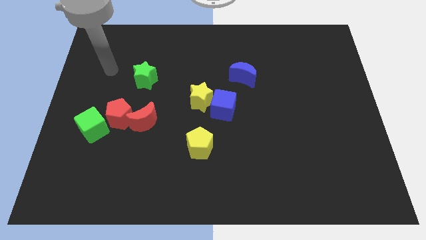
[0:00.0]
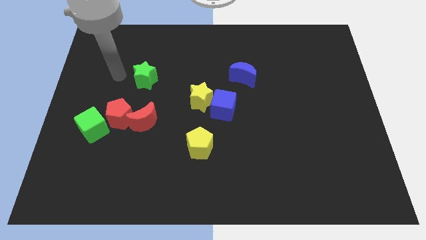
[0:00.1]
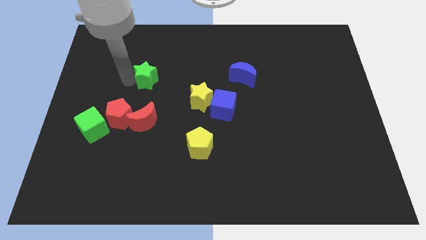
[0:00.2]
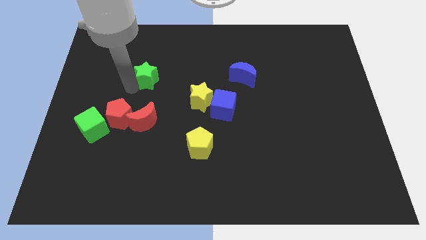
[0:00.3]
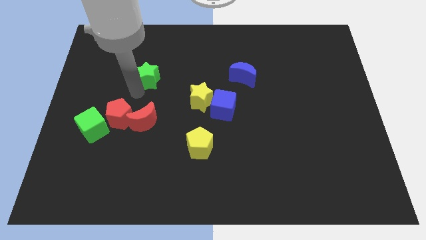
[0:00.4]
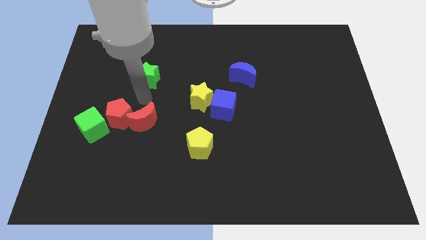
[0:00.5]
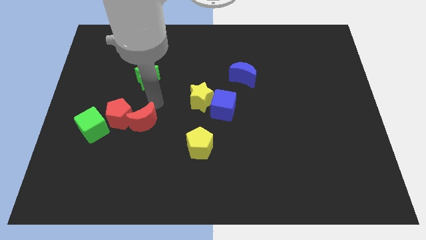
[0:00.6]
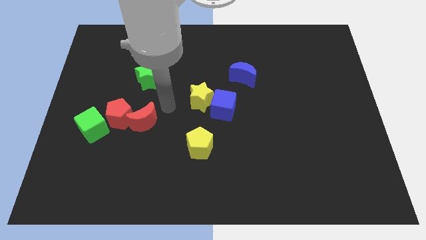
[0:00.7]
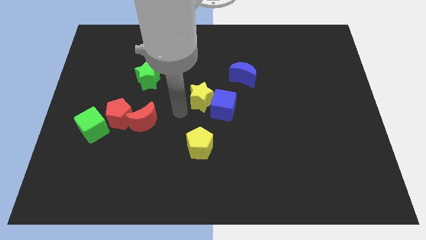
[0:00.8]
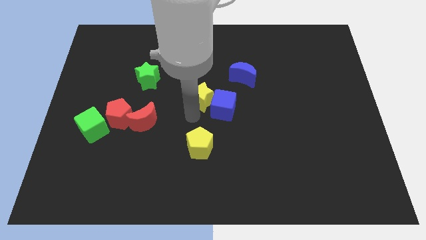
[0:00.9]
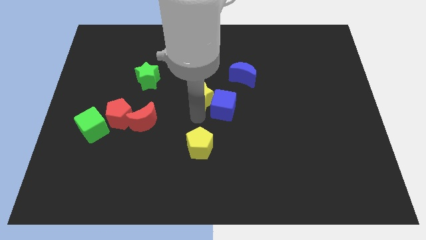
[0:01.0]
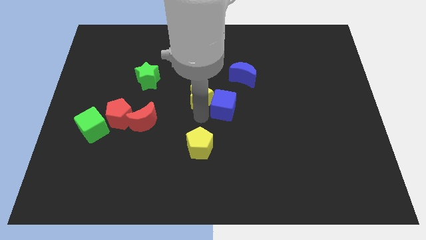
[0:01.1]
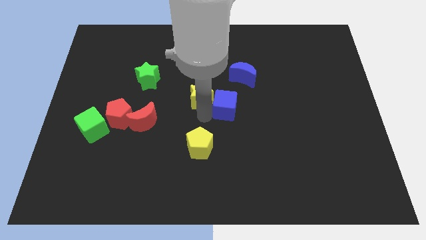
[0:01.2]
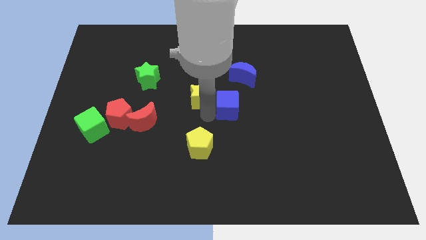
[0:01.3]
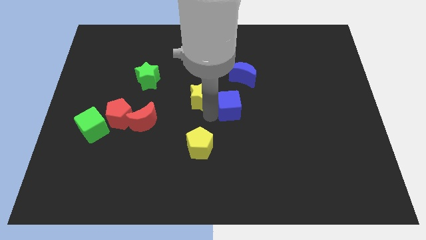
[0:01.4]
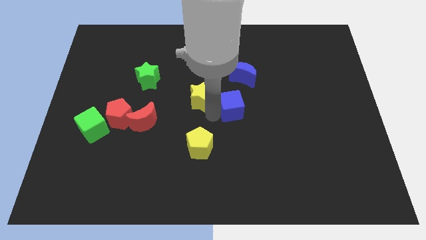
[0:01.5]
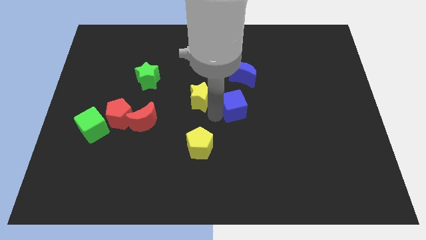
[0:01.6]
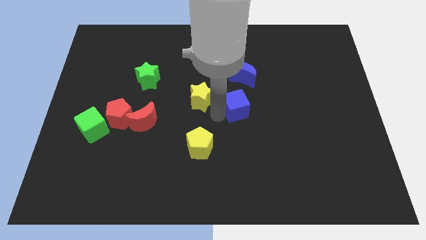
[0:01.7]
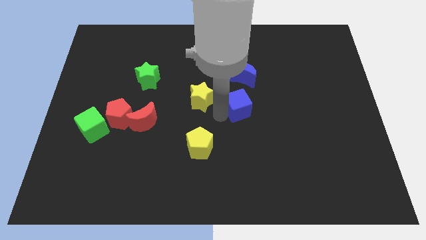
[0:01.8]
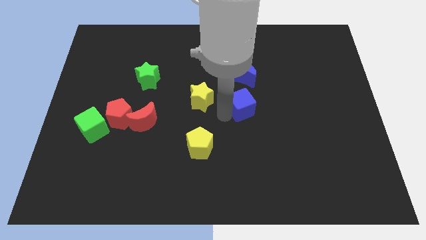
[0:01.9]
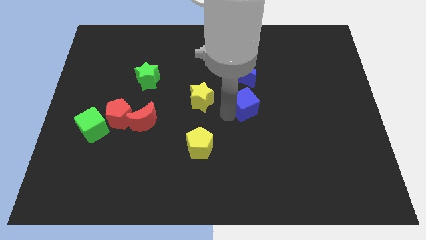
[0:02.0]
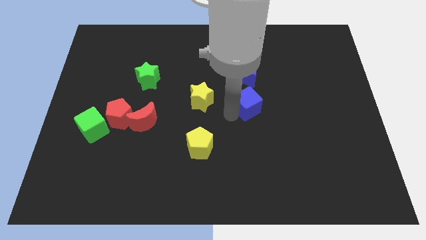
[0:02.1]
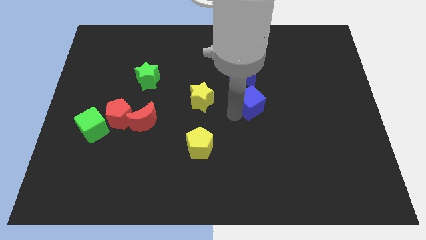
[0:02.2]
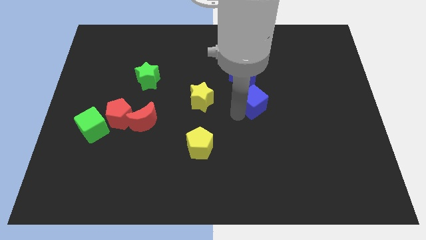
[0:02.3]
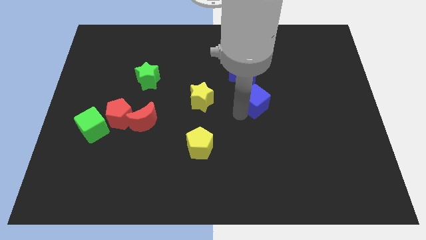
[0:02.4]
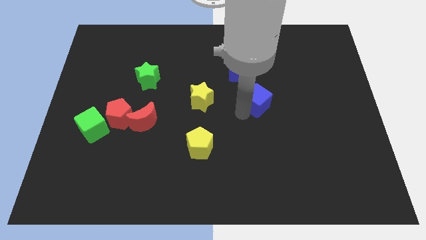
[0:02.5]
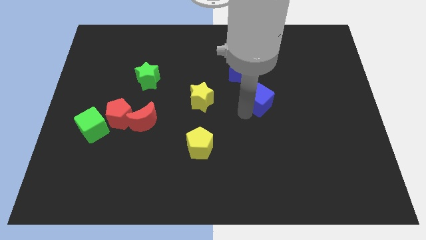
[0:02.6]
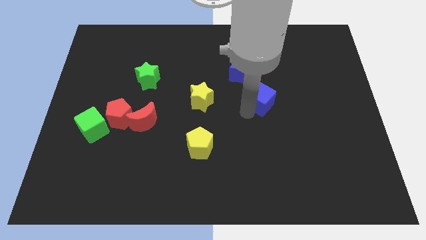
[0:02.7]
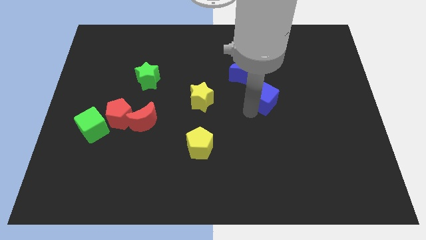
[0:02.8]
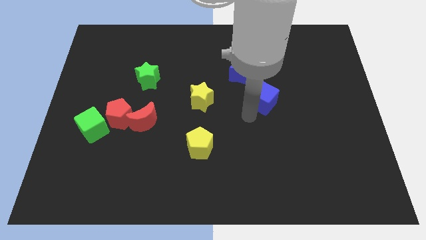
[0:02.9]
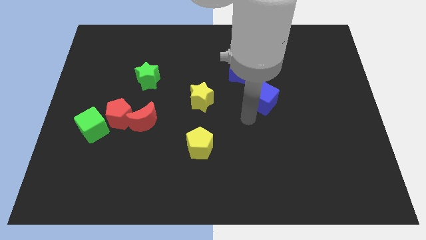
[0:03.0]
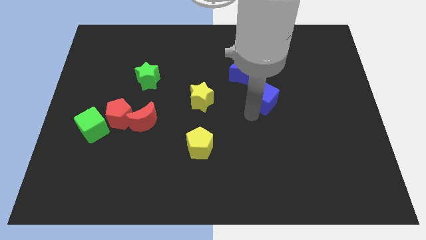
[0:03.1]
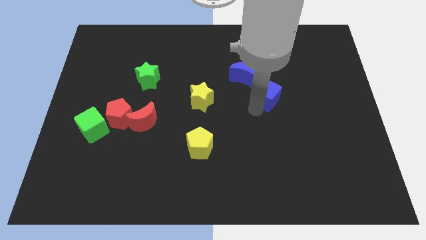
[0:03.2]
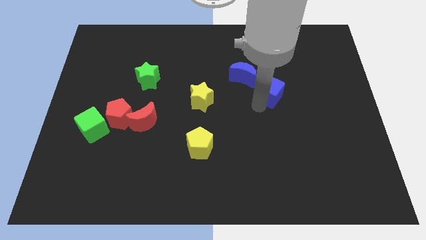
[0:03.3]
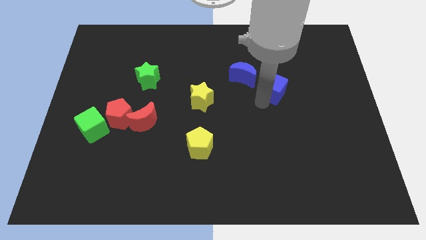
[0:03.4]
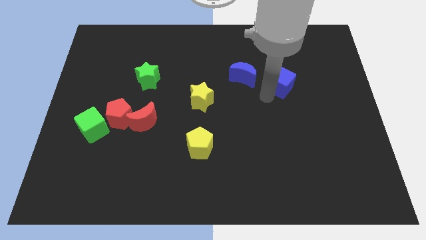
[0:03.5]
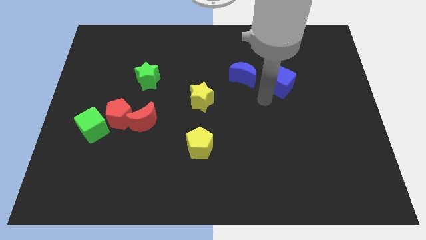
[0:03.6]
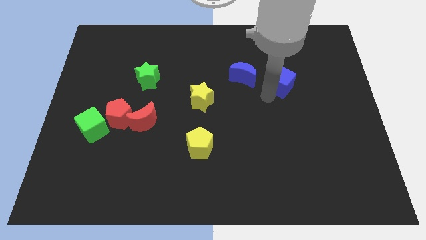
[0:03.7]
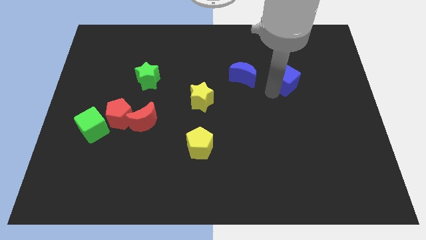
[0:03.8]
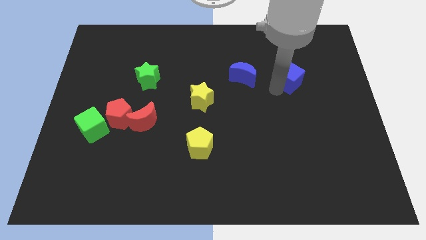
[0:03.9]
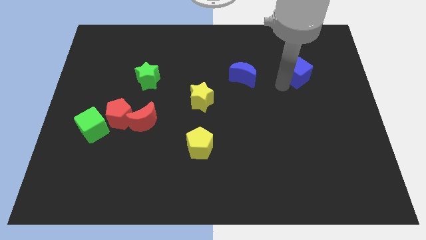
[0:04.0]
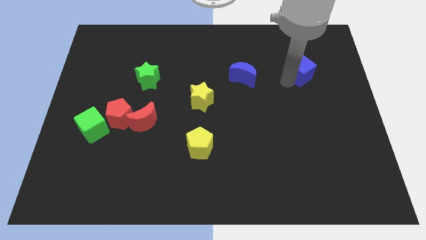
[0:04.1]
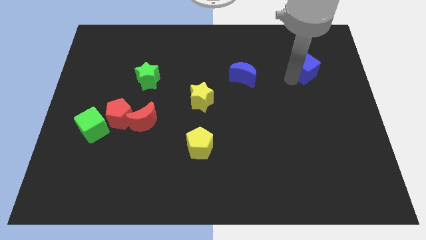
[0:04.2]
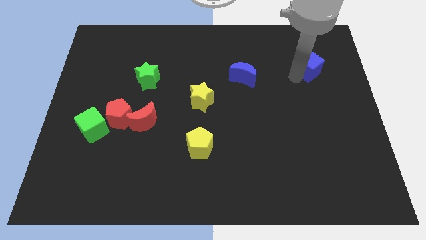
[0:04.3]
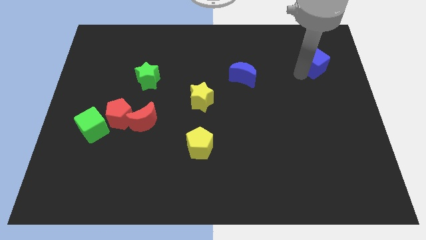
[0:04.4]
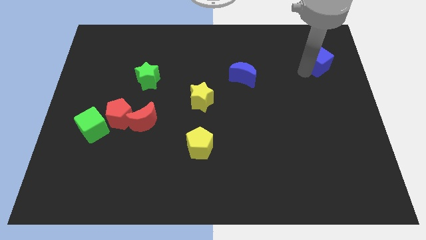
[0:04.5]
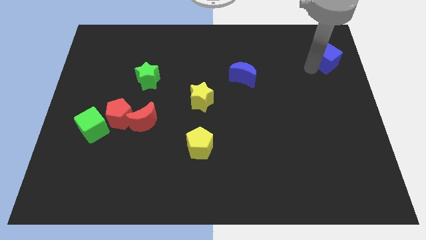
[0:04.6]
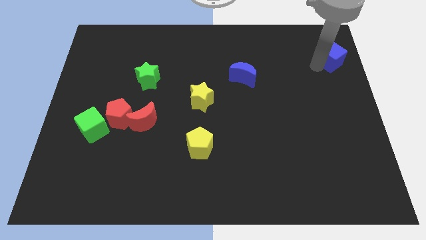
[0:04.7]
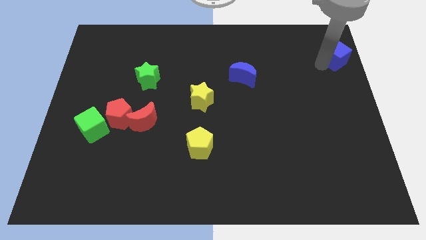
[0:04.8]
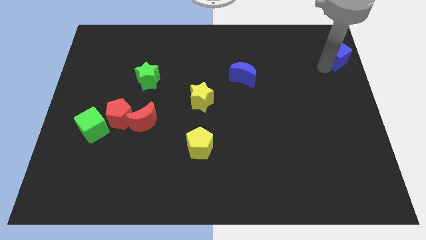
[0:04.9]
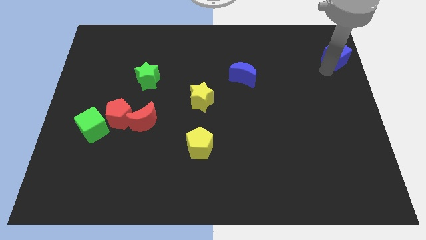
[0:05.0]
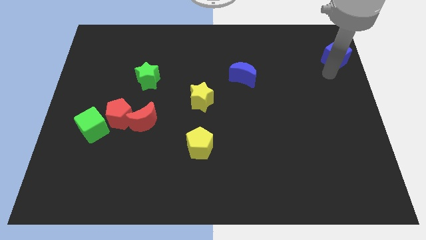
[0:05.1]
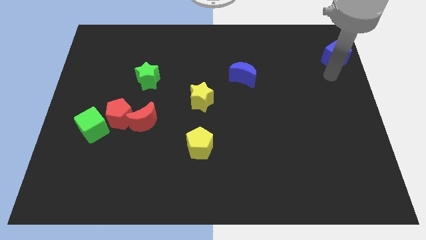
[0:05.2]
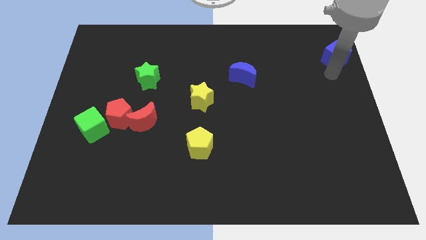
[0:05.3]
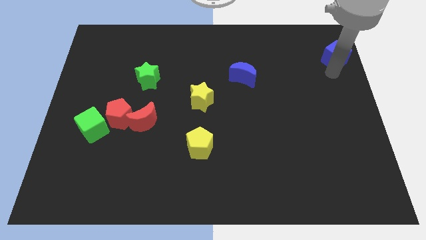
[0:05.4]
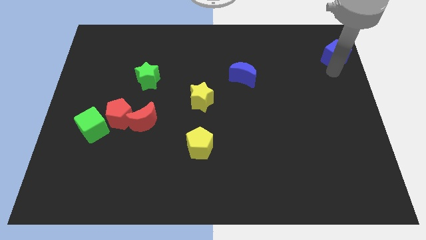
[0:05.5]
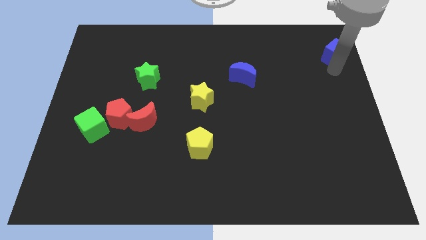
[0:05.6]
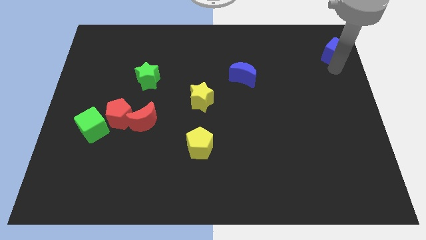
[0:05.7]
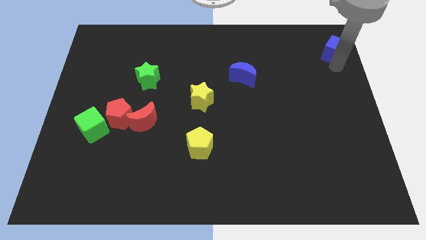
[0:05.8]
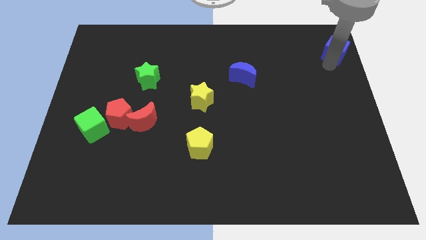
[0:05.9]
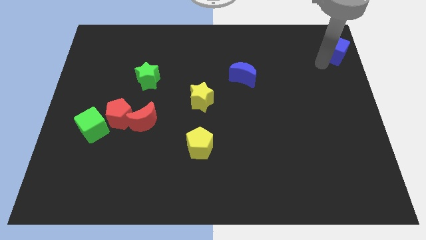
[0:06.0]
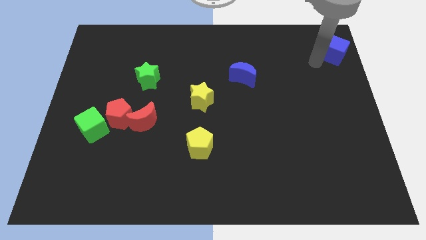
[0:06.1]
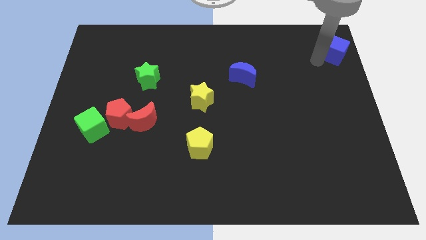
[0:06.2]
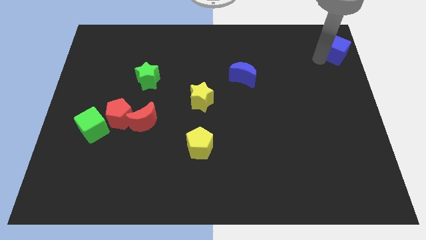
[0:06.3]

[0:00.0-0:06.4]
put the blue cube to the upper right corner
